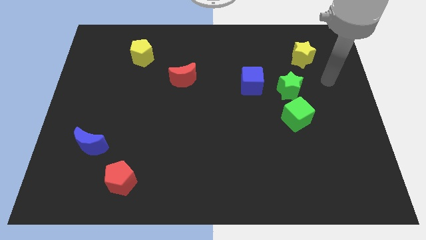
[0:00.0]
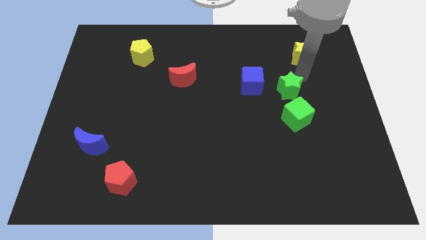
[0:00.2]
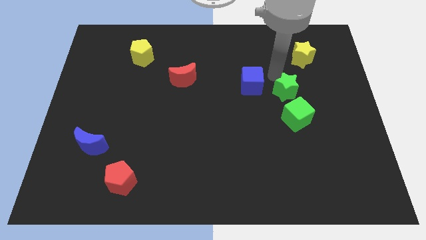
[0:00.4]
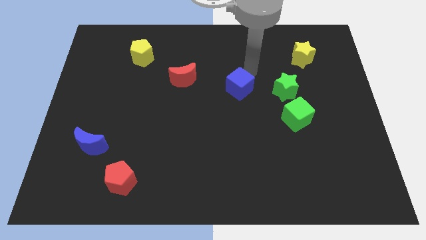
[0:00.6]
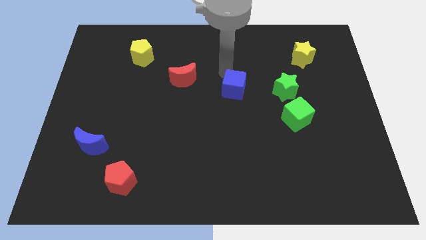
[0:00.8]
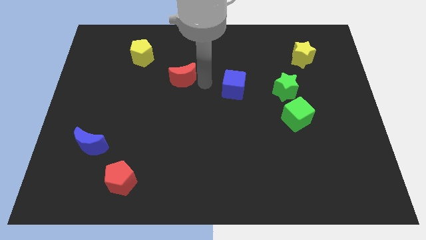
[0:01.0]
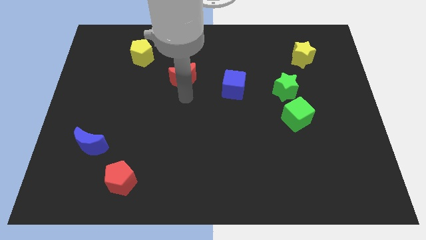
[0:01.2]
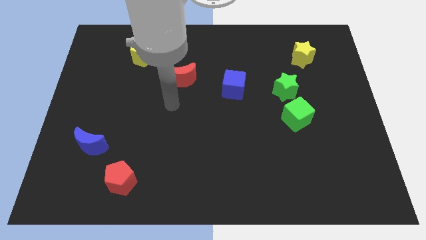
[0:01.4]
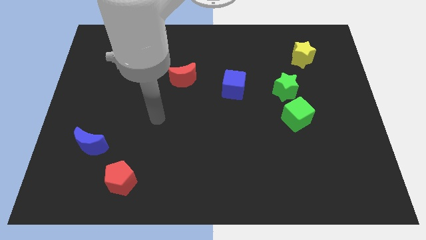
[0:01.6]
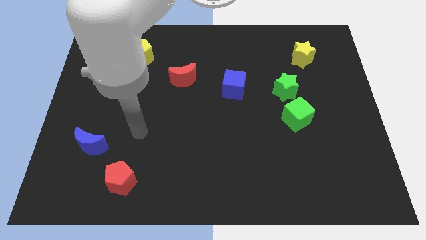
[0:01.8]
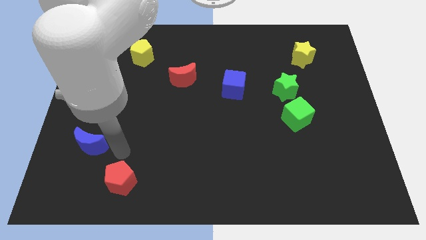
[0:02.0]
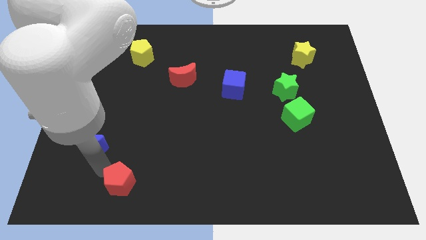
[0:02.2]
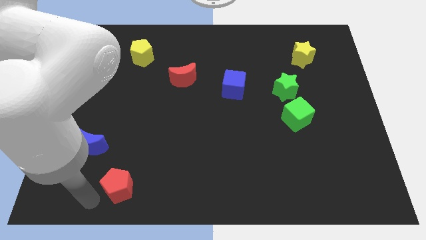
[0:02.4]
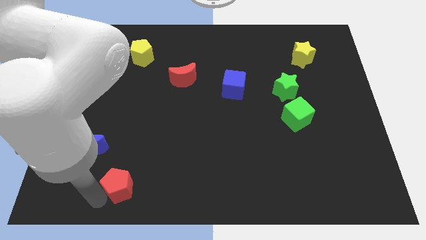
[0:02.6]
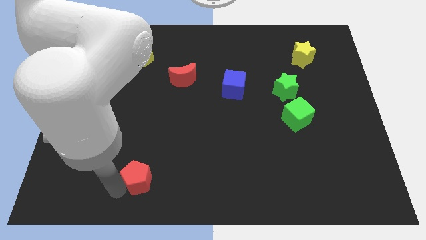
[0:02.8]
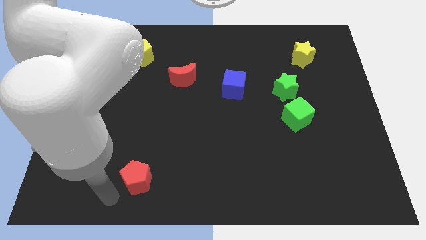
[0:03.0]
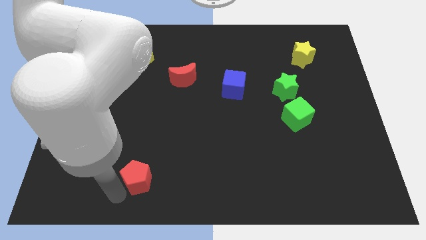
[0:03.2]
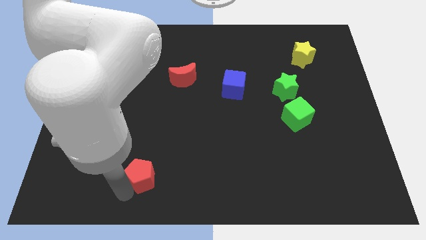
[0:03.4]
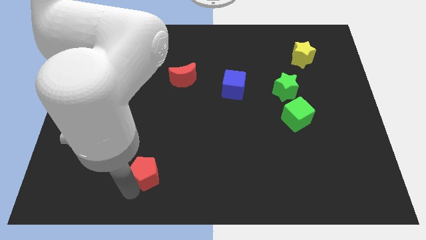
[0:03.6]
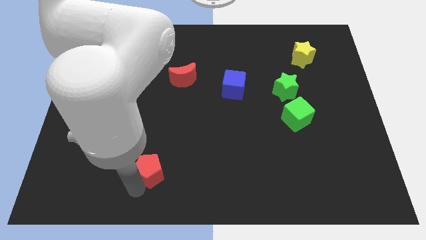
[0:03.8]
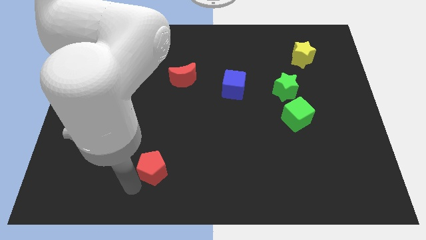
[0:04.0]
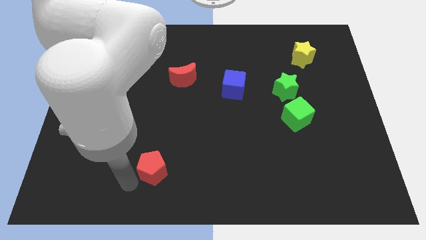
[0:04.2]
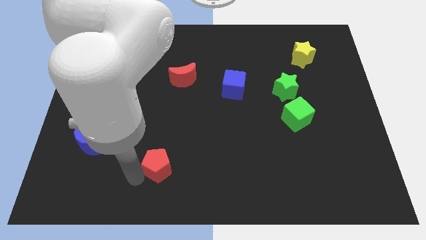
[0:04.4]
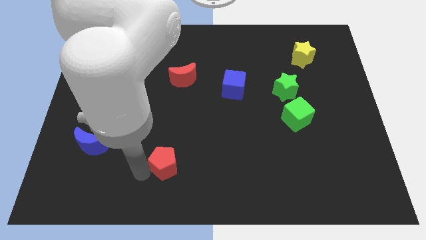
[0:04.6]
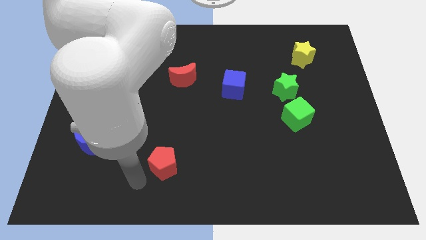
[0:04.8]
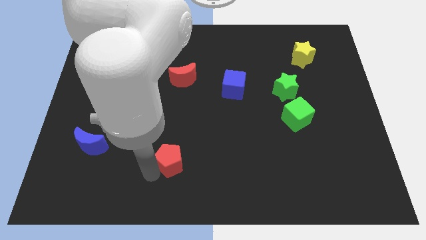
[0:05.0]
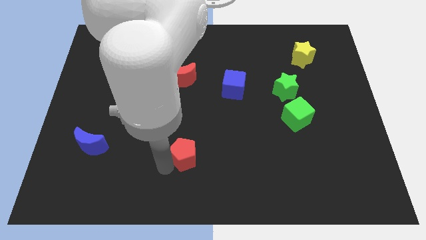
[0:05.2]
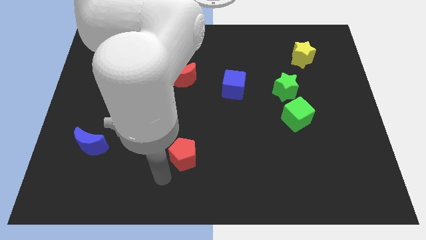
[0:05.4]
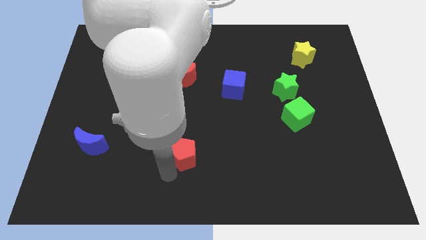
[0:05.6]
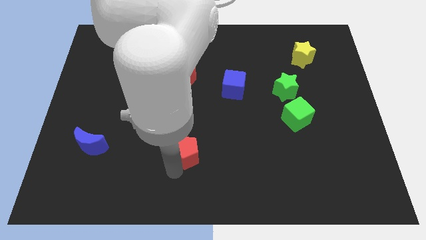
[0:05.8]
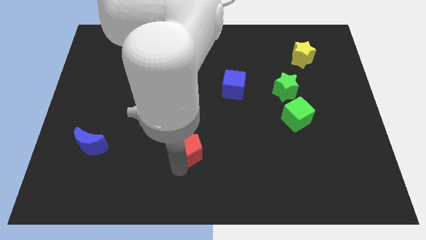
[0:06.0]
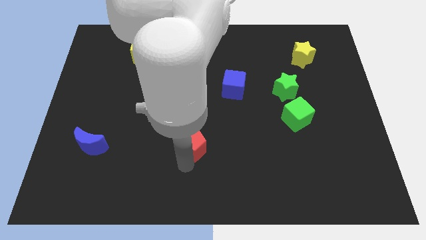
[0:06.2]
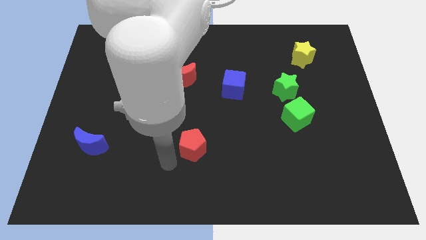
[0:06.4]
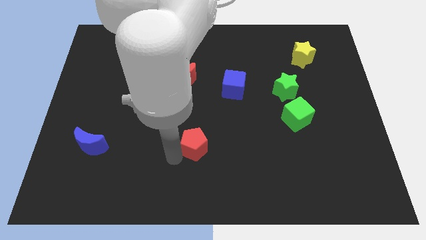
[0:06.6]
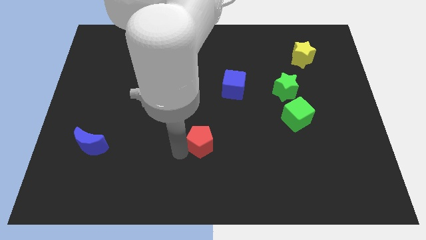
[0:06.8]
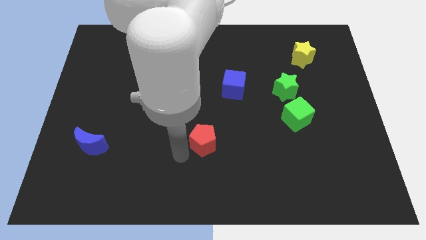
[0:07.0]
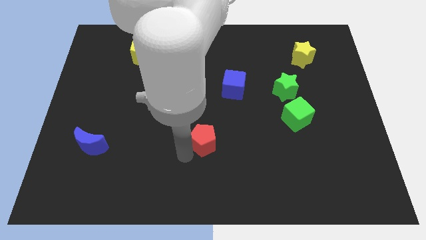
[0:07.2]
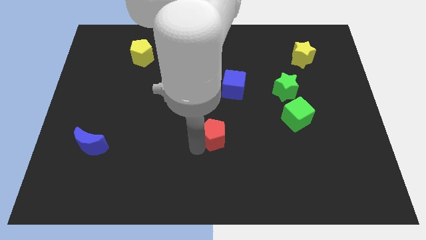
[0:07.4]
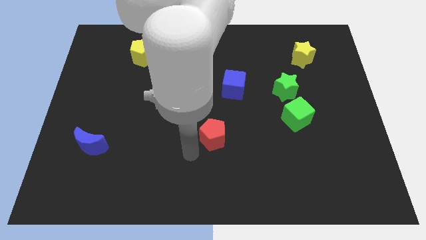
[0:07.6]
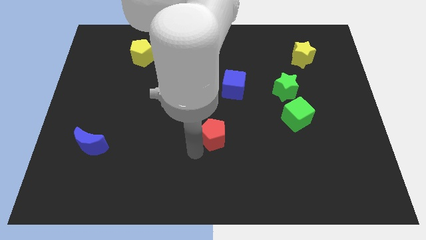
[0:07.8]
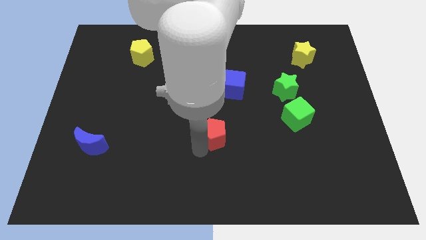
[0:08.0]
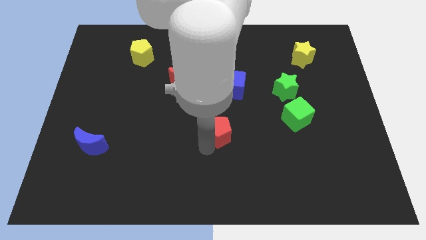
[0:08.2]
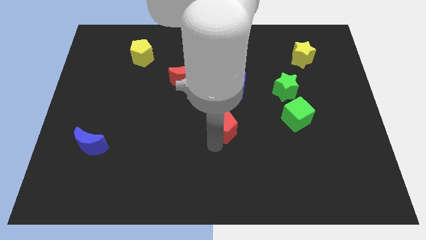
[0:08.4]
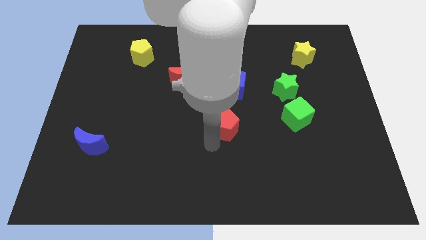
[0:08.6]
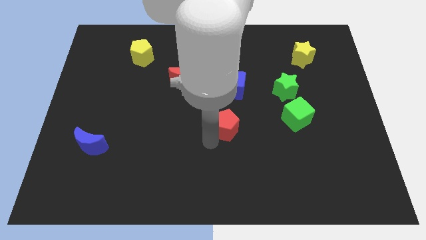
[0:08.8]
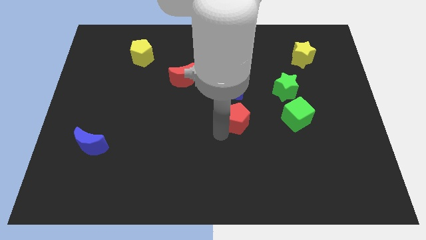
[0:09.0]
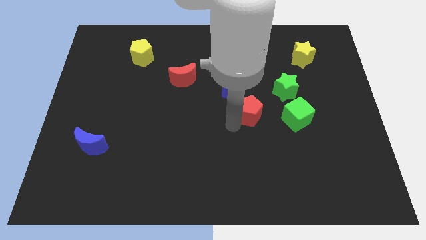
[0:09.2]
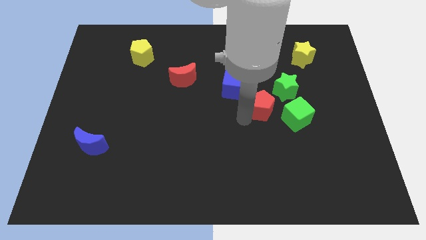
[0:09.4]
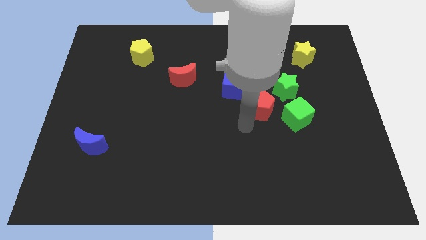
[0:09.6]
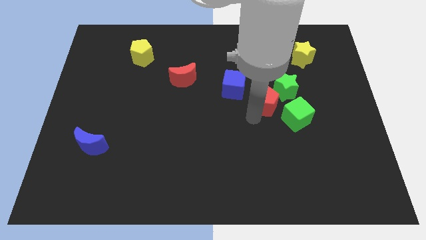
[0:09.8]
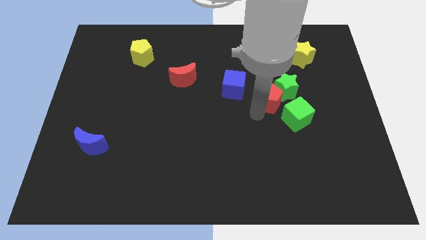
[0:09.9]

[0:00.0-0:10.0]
push the red pentagon close to the green star

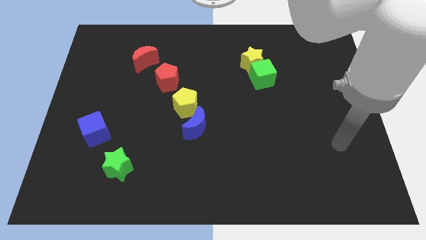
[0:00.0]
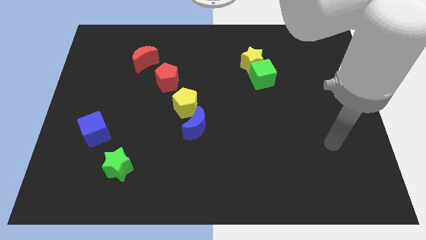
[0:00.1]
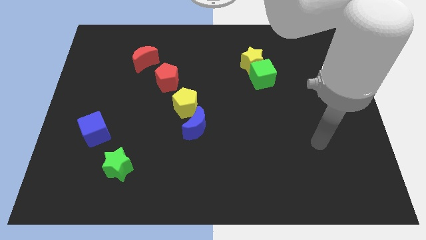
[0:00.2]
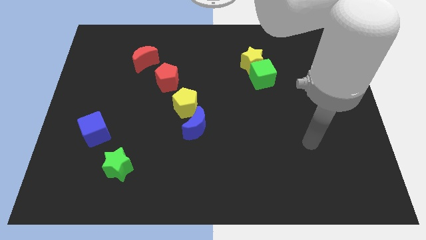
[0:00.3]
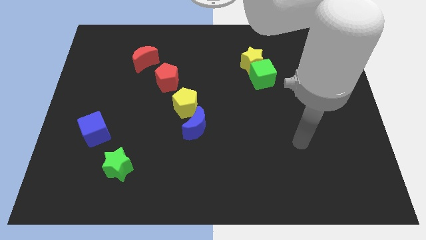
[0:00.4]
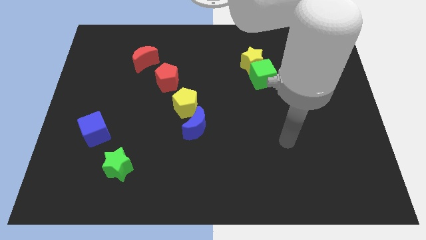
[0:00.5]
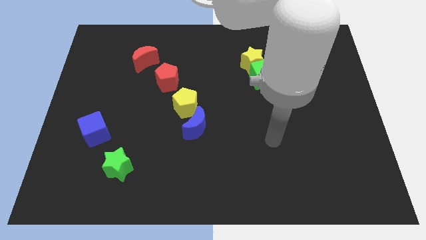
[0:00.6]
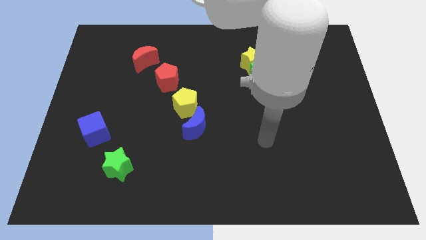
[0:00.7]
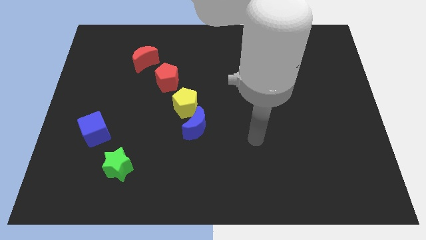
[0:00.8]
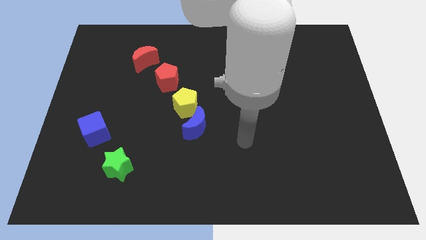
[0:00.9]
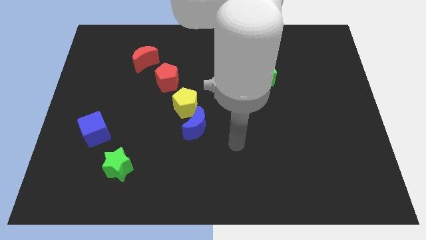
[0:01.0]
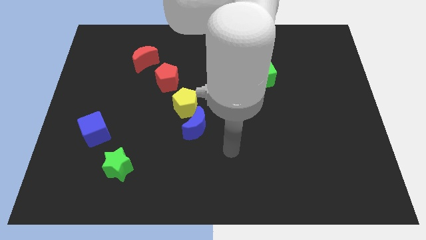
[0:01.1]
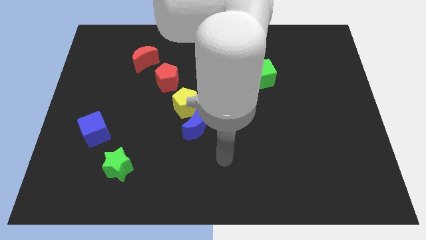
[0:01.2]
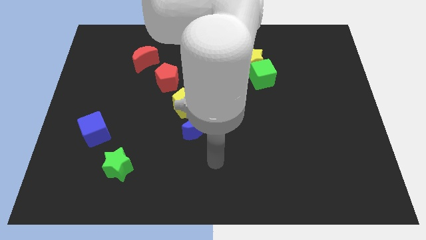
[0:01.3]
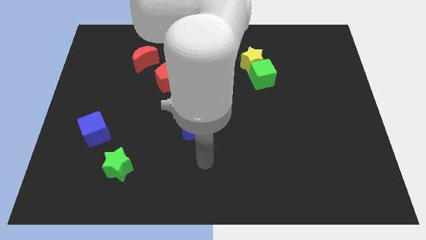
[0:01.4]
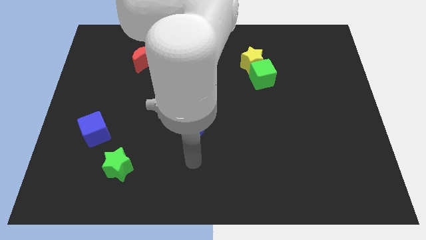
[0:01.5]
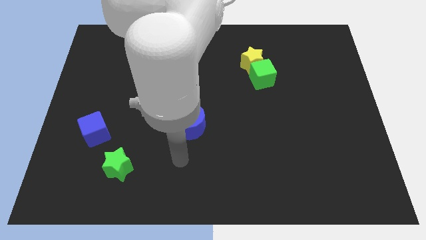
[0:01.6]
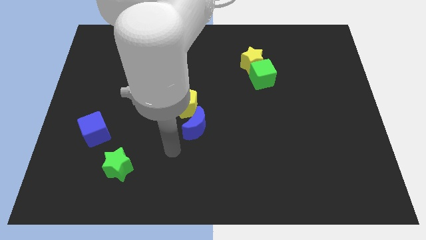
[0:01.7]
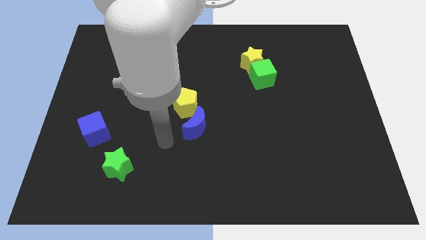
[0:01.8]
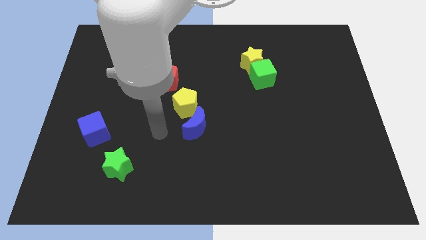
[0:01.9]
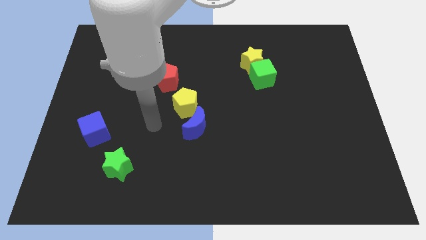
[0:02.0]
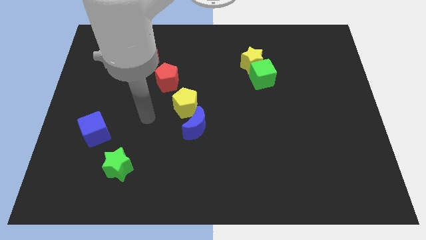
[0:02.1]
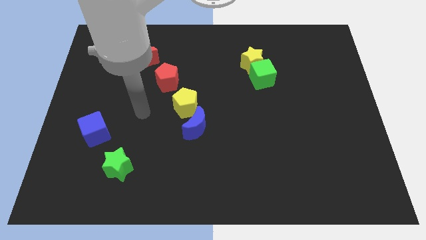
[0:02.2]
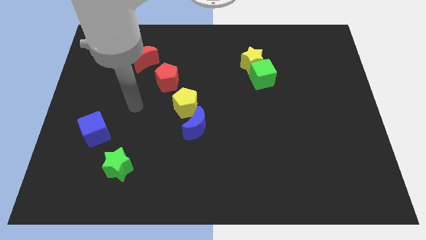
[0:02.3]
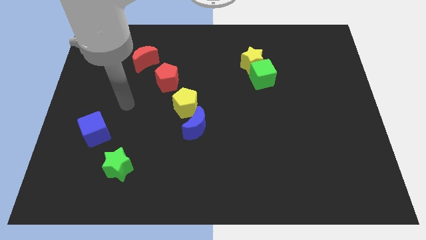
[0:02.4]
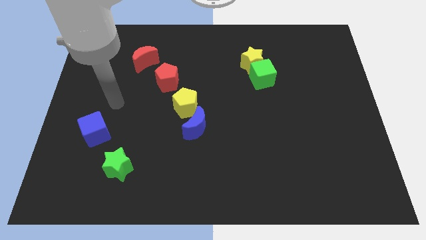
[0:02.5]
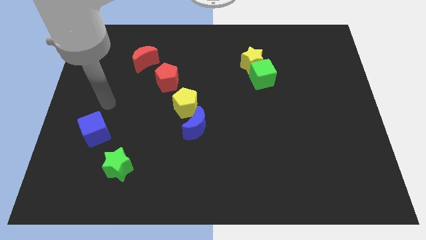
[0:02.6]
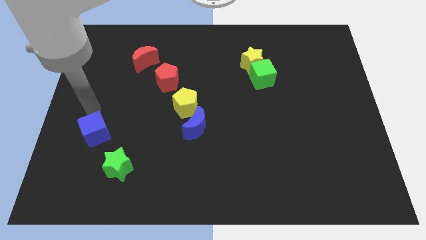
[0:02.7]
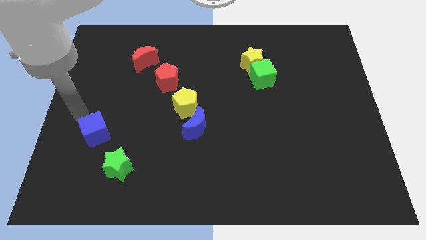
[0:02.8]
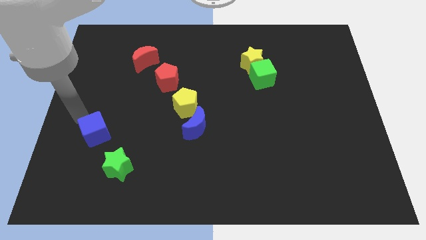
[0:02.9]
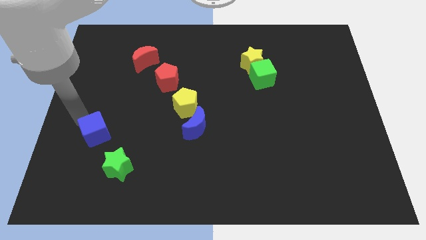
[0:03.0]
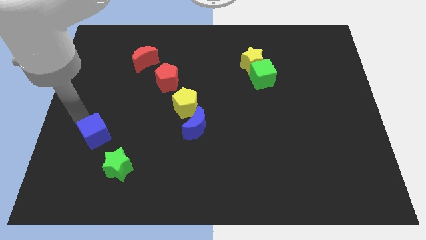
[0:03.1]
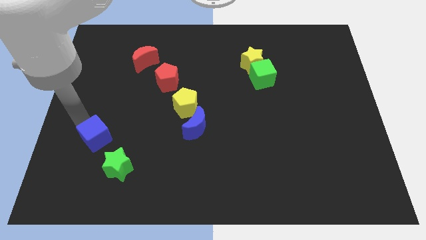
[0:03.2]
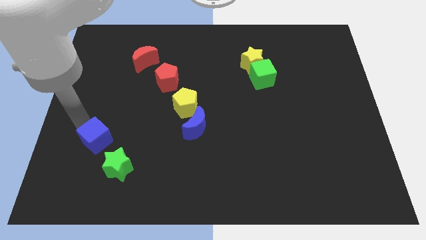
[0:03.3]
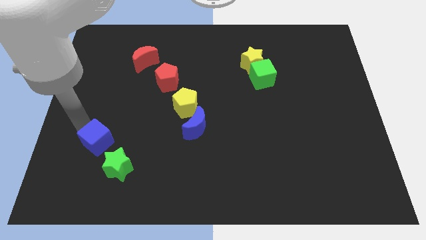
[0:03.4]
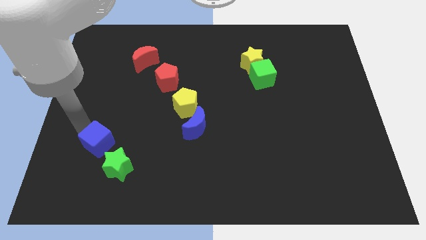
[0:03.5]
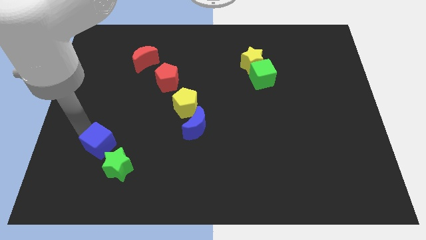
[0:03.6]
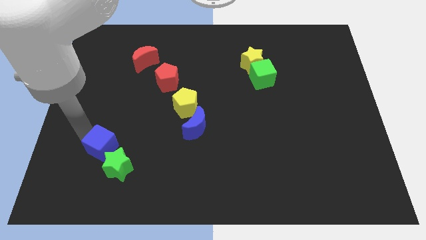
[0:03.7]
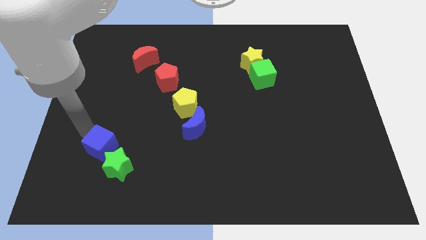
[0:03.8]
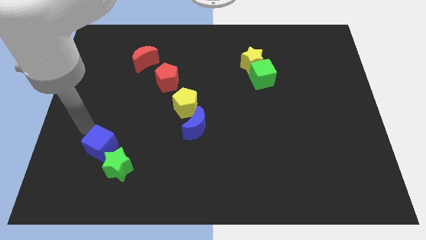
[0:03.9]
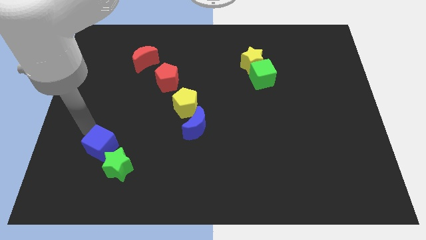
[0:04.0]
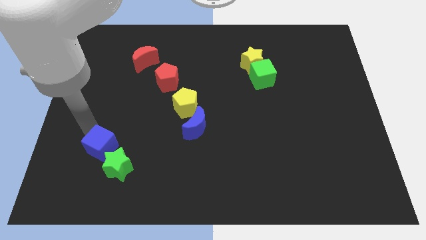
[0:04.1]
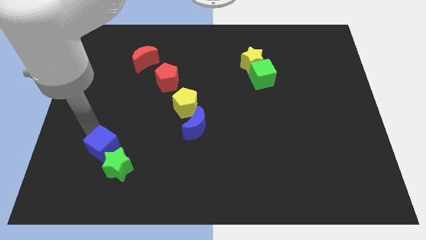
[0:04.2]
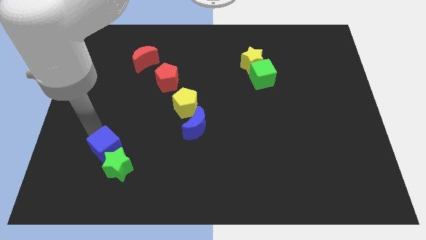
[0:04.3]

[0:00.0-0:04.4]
push the blue cube next to the green star
